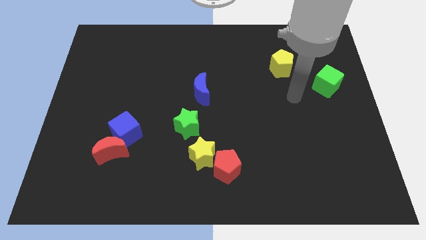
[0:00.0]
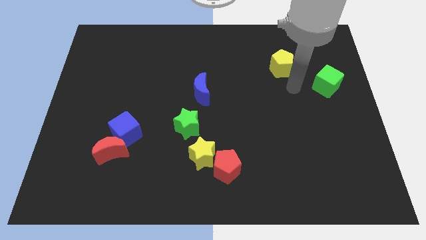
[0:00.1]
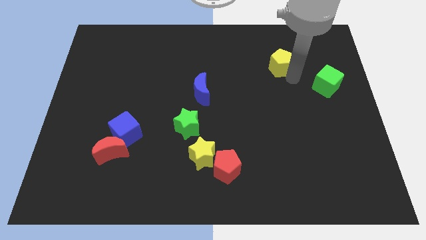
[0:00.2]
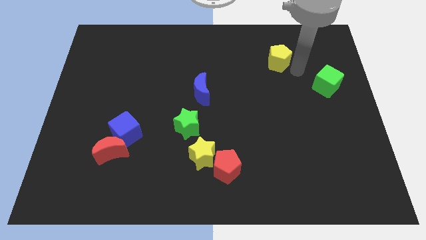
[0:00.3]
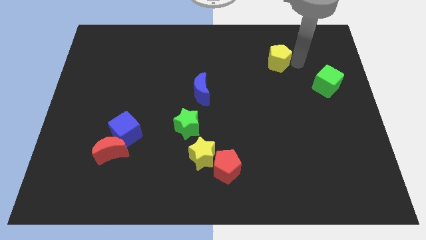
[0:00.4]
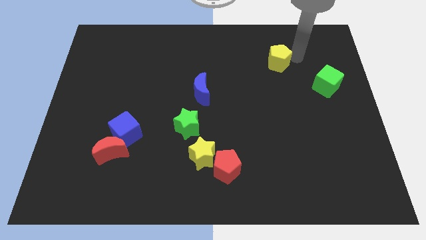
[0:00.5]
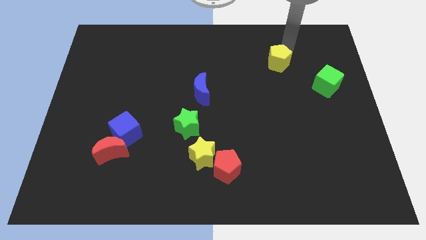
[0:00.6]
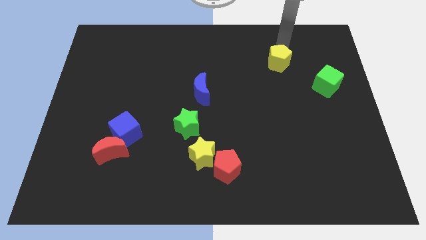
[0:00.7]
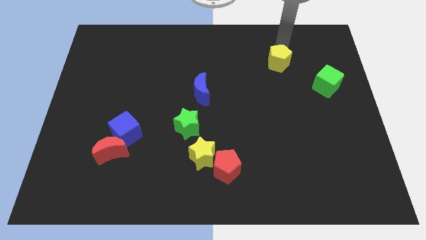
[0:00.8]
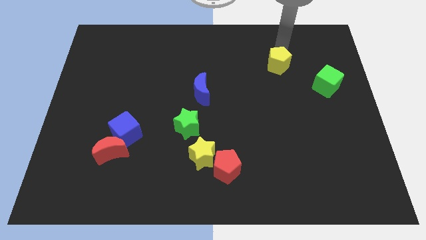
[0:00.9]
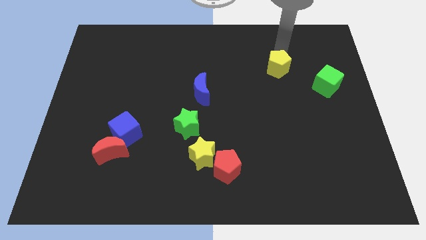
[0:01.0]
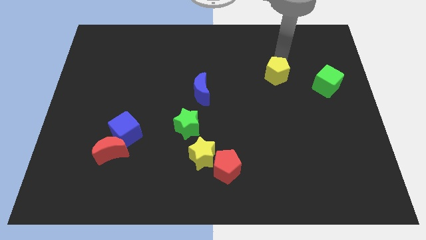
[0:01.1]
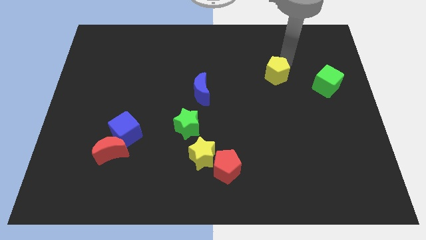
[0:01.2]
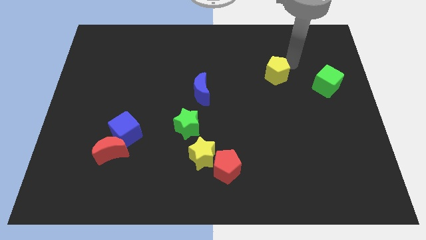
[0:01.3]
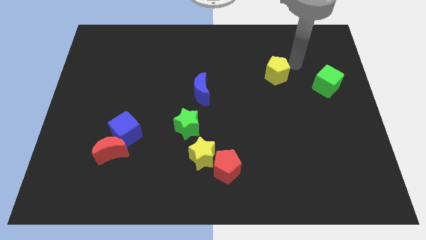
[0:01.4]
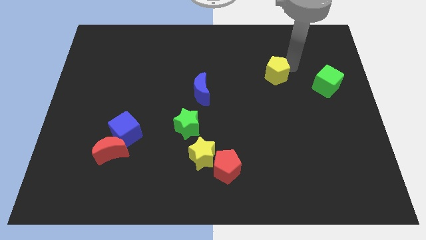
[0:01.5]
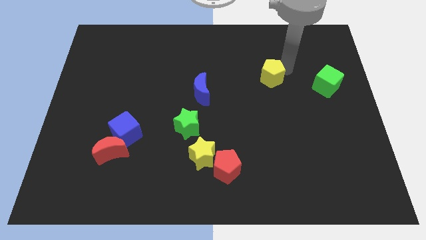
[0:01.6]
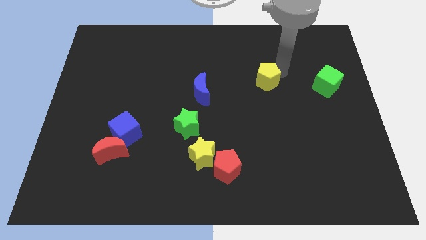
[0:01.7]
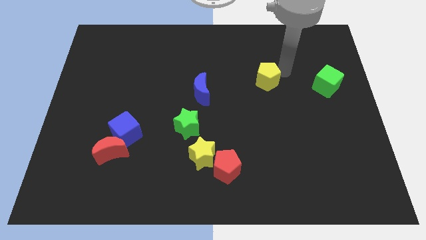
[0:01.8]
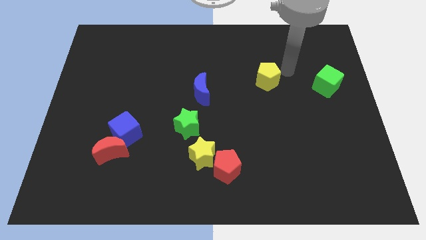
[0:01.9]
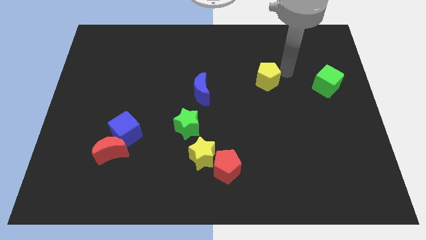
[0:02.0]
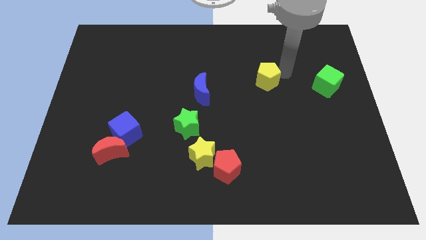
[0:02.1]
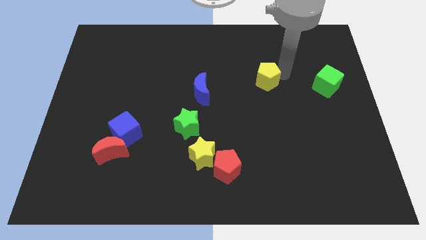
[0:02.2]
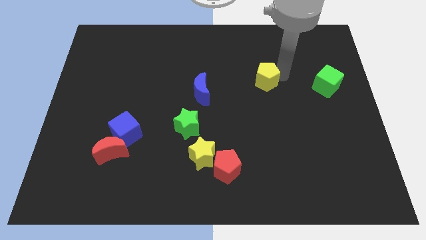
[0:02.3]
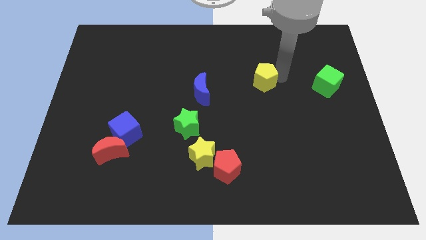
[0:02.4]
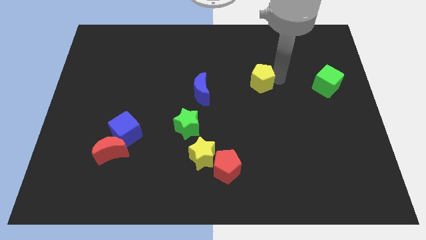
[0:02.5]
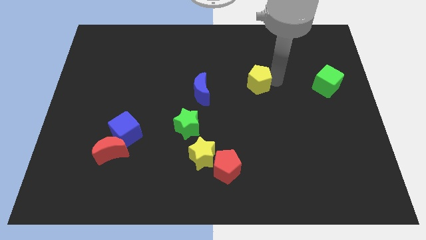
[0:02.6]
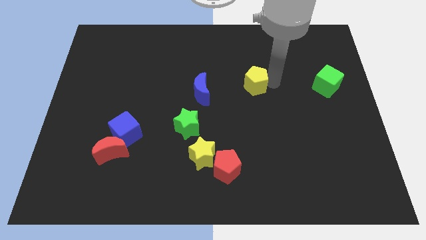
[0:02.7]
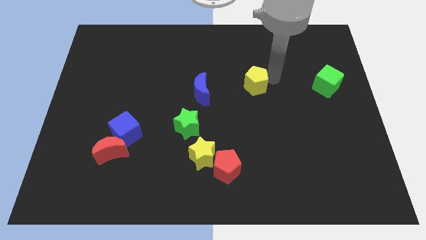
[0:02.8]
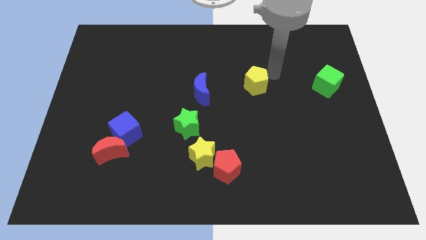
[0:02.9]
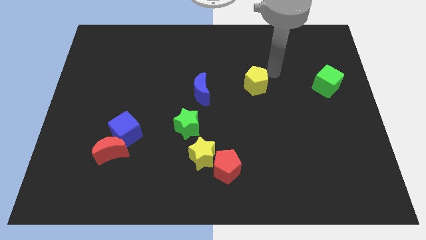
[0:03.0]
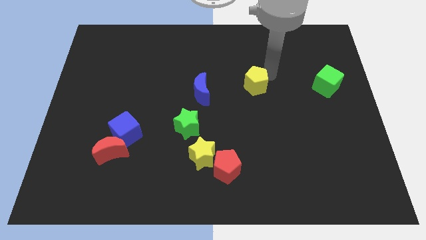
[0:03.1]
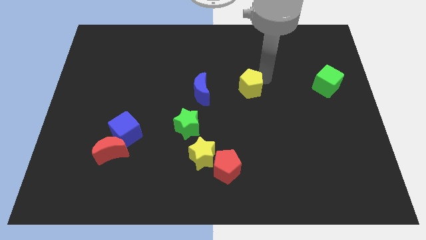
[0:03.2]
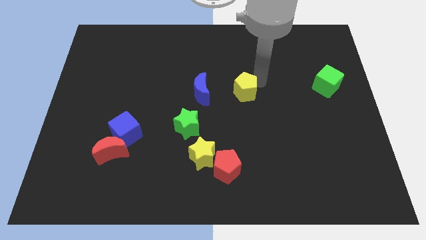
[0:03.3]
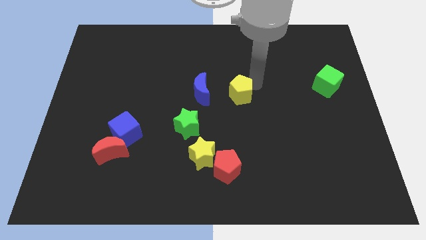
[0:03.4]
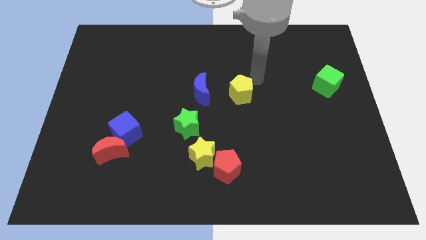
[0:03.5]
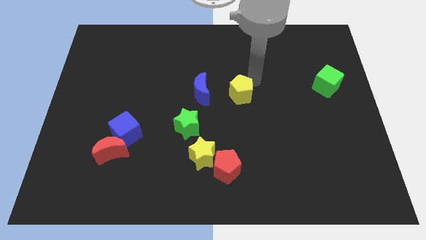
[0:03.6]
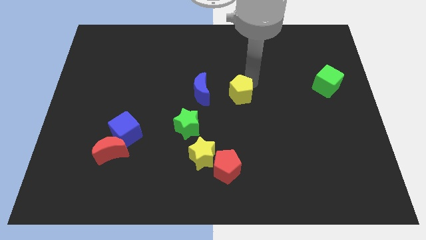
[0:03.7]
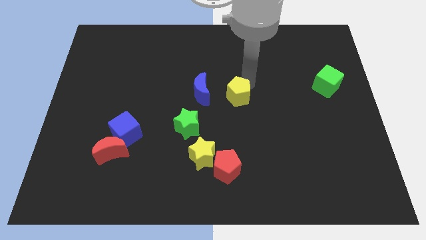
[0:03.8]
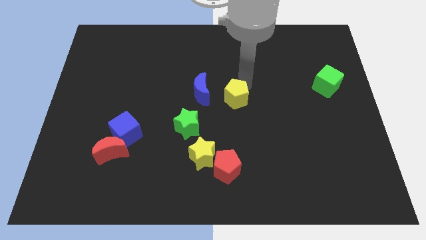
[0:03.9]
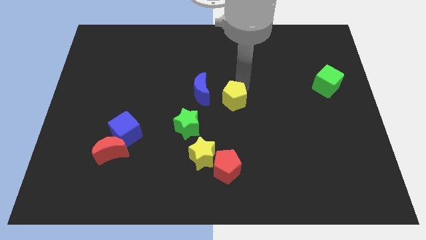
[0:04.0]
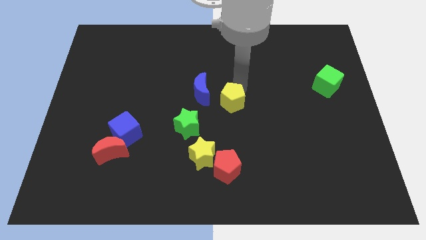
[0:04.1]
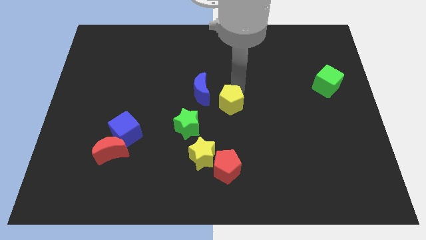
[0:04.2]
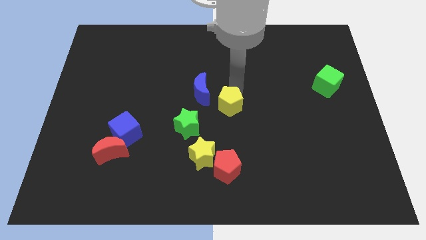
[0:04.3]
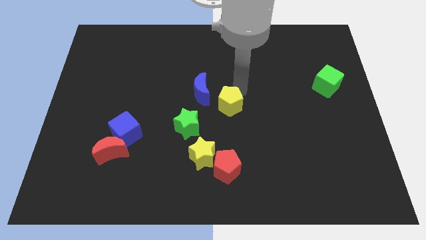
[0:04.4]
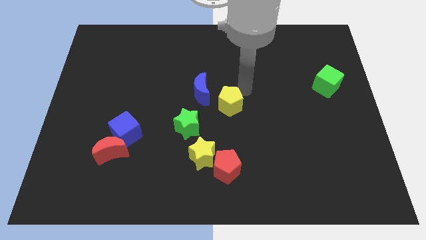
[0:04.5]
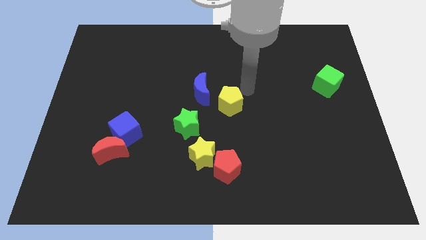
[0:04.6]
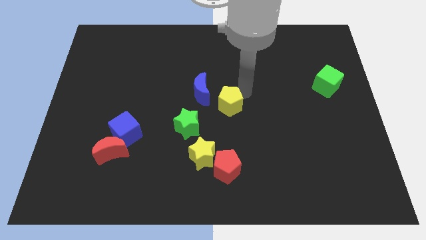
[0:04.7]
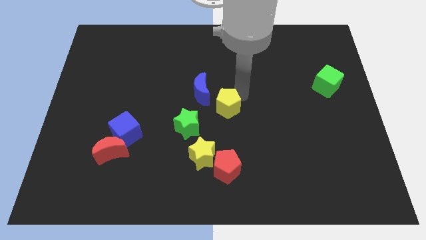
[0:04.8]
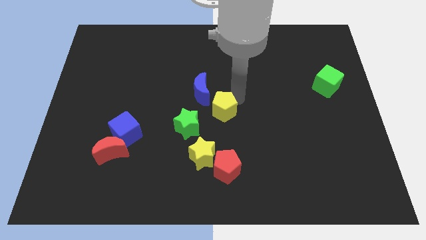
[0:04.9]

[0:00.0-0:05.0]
move the yellow pentagon down and left diagonally

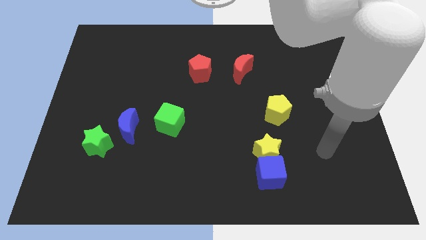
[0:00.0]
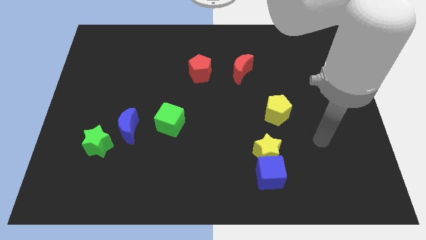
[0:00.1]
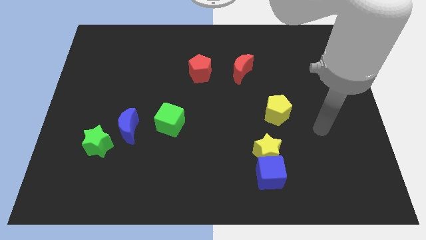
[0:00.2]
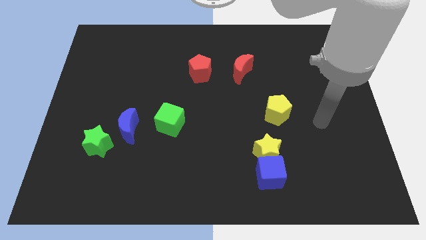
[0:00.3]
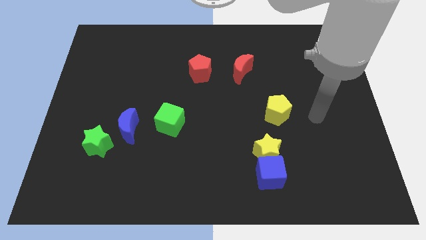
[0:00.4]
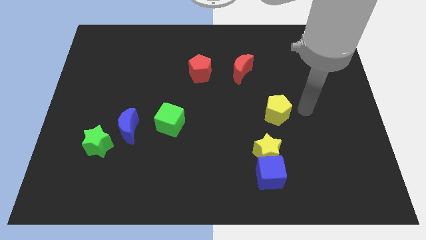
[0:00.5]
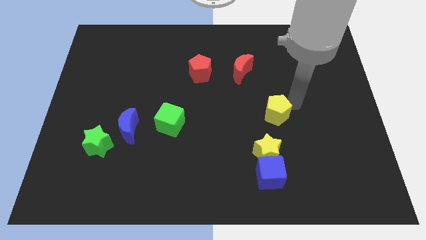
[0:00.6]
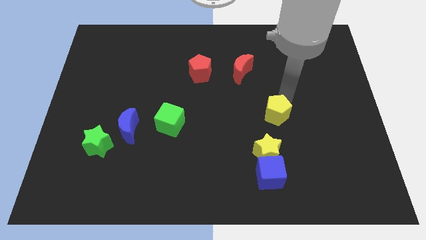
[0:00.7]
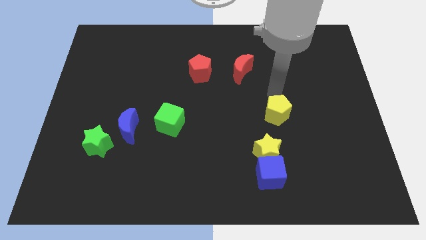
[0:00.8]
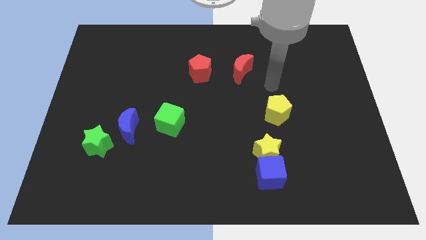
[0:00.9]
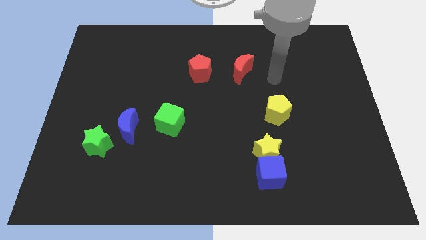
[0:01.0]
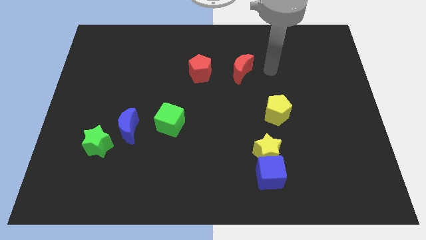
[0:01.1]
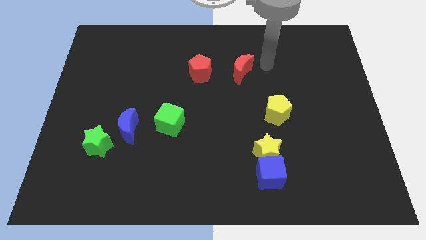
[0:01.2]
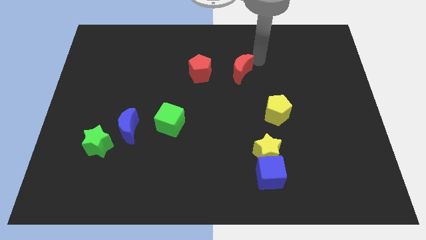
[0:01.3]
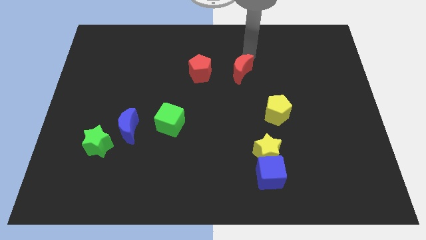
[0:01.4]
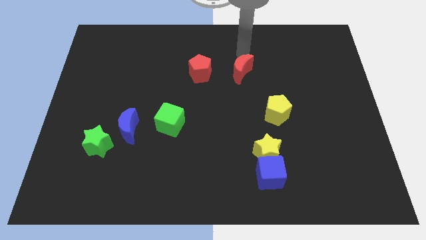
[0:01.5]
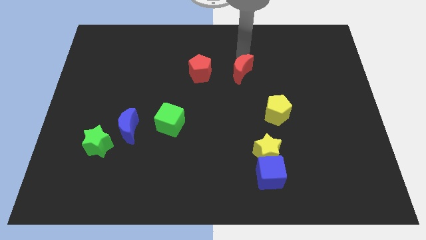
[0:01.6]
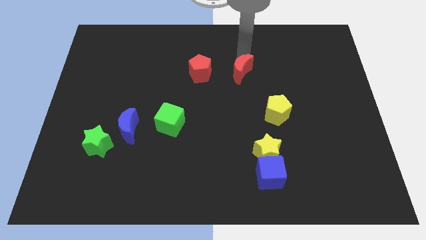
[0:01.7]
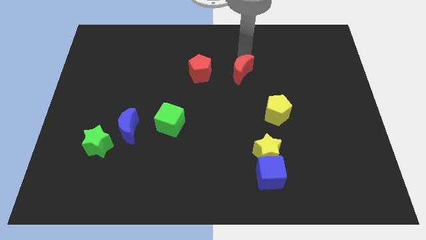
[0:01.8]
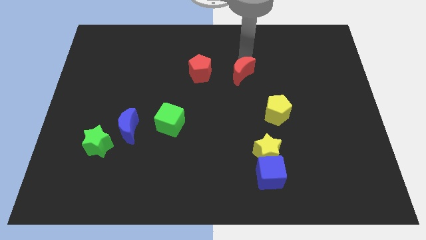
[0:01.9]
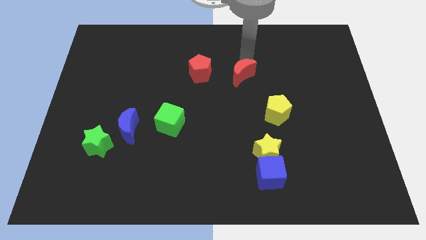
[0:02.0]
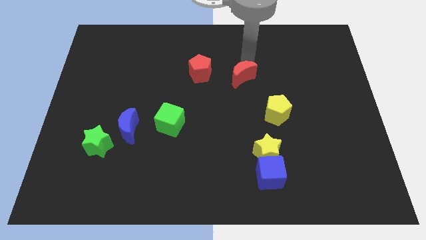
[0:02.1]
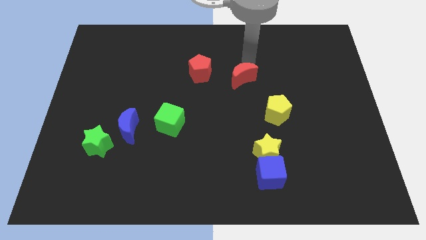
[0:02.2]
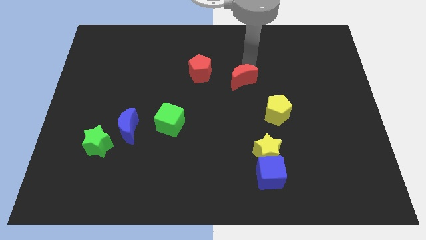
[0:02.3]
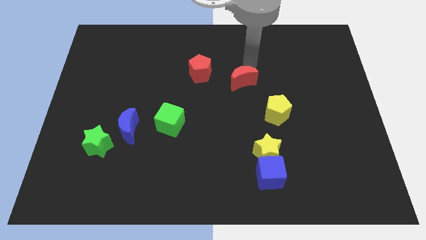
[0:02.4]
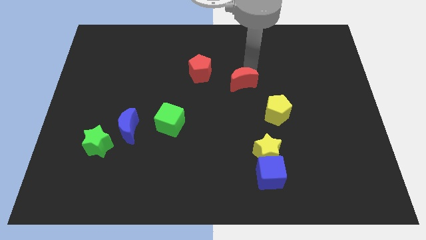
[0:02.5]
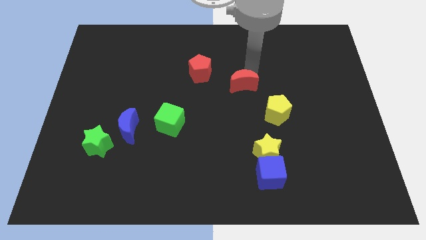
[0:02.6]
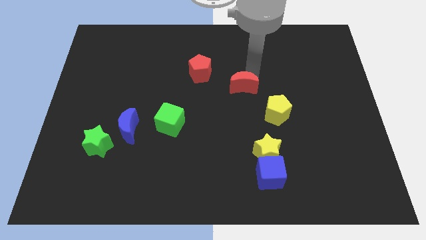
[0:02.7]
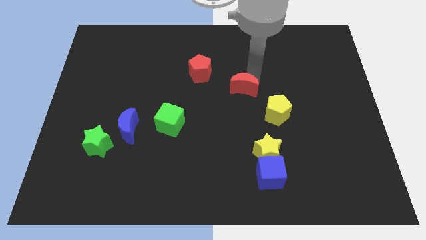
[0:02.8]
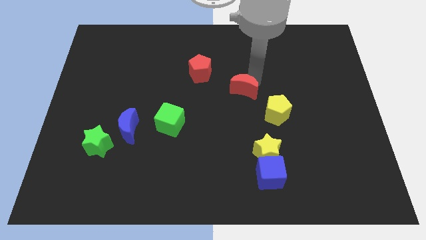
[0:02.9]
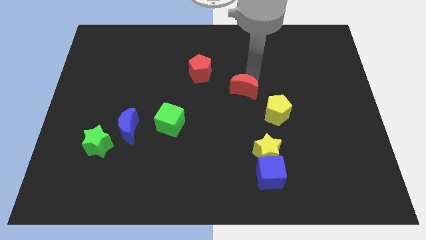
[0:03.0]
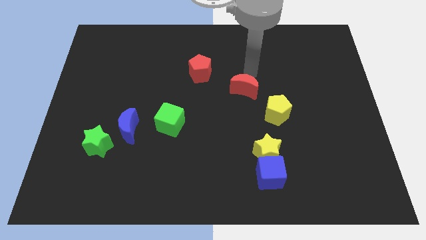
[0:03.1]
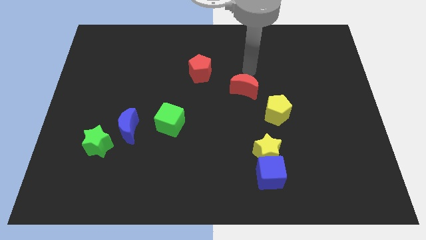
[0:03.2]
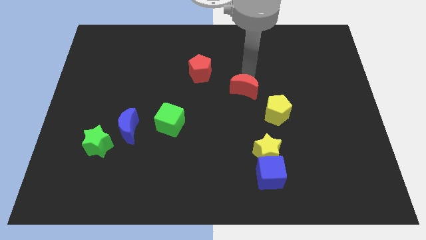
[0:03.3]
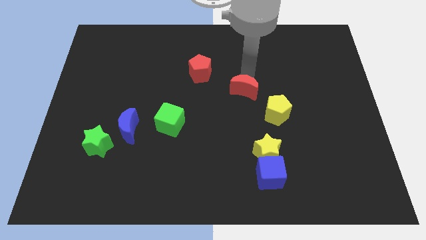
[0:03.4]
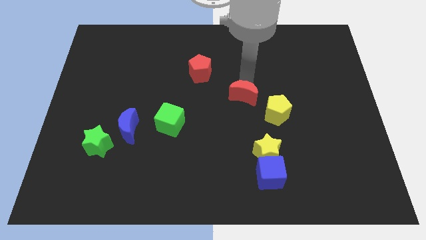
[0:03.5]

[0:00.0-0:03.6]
slightly move the red moon down
